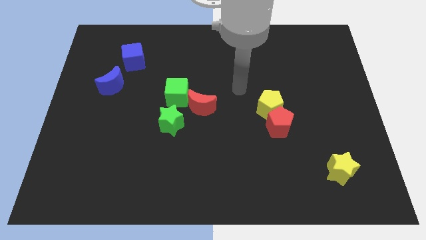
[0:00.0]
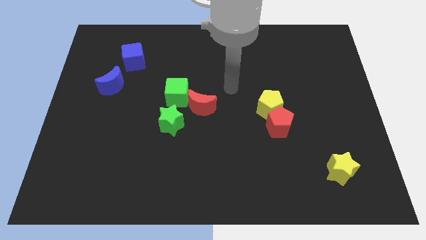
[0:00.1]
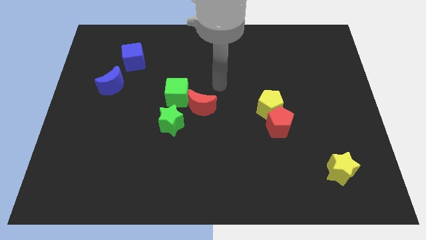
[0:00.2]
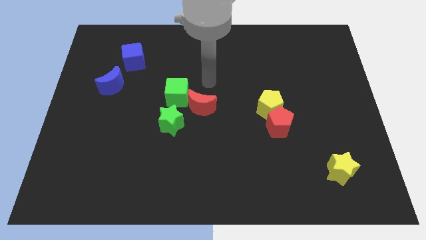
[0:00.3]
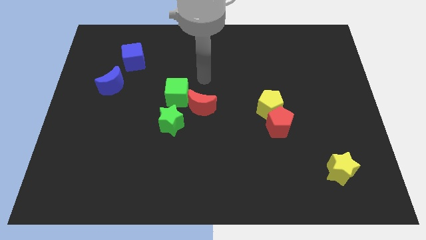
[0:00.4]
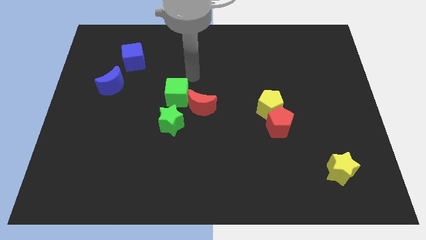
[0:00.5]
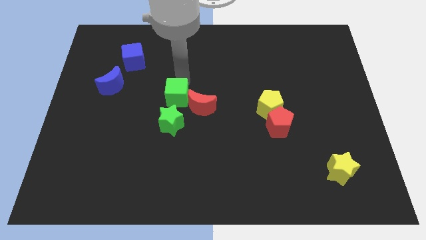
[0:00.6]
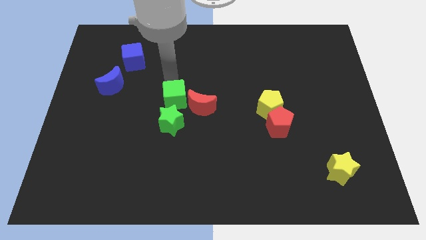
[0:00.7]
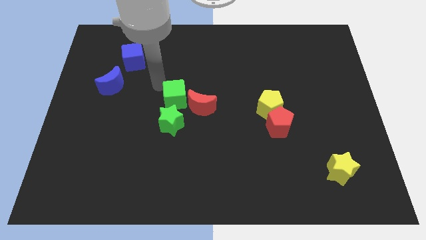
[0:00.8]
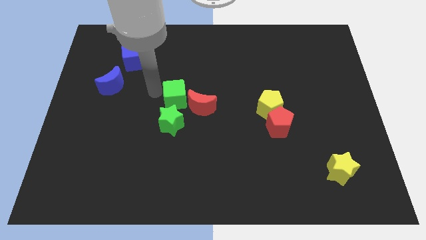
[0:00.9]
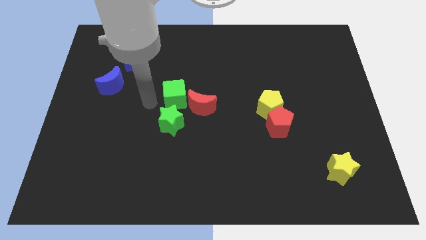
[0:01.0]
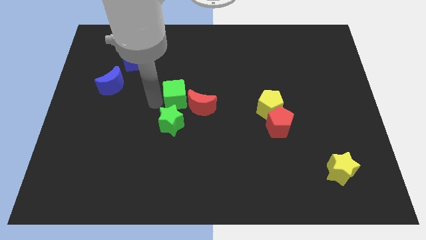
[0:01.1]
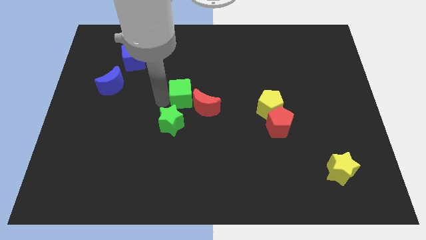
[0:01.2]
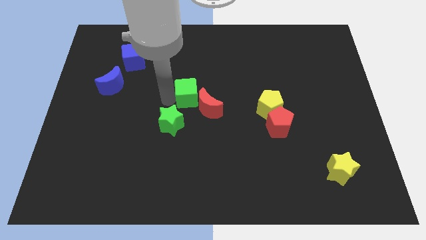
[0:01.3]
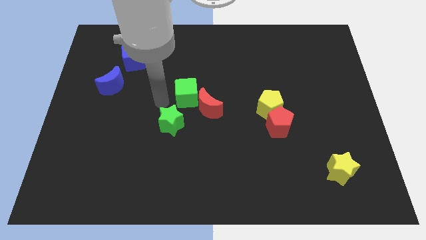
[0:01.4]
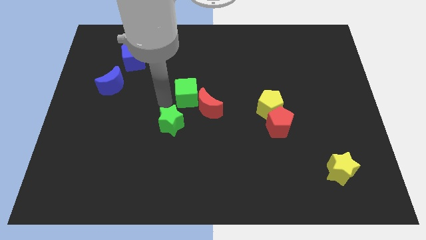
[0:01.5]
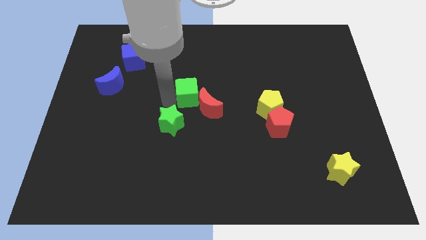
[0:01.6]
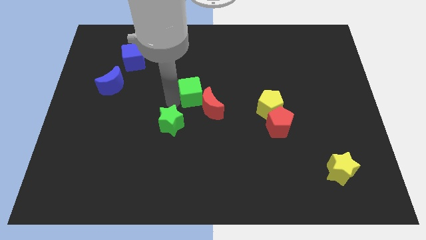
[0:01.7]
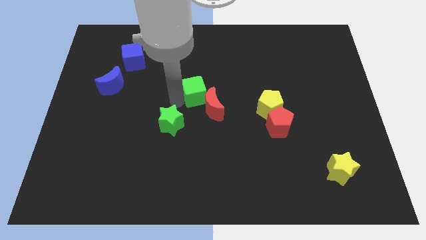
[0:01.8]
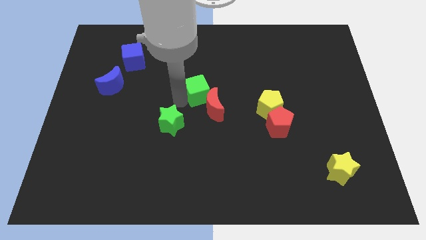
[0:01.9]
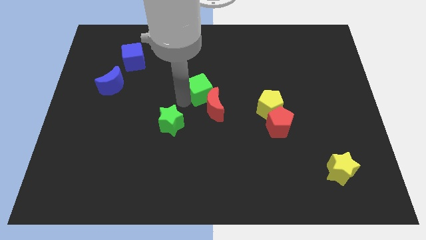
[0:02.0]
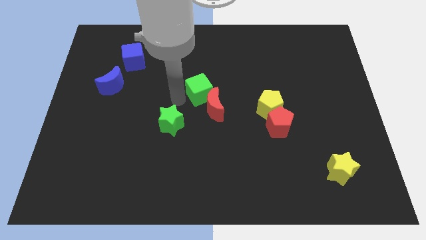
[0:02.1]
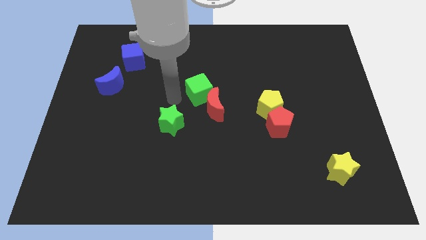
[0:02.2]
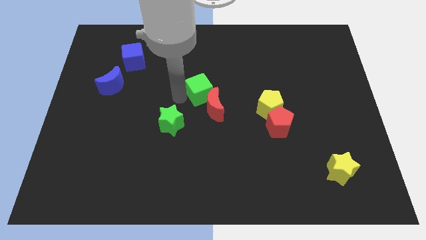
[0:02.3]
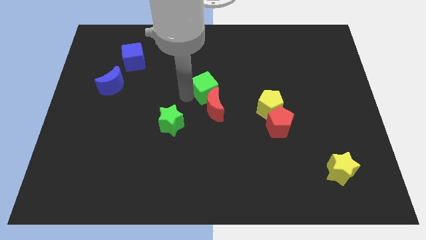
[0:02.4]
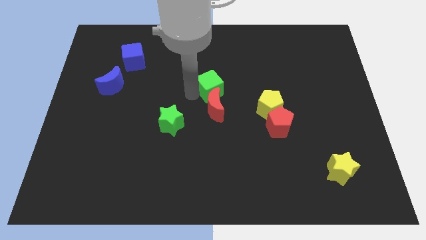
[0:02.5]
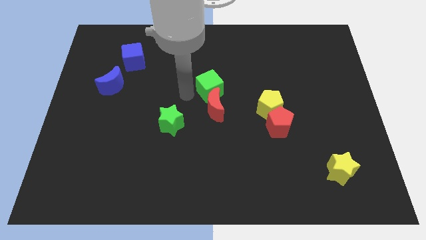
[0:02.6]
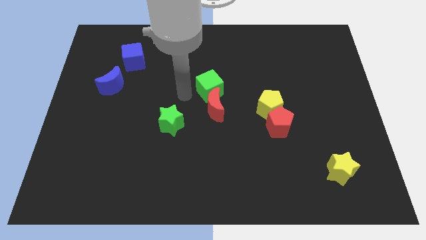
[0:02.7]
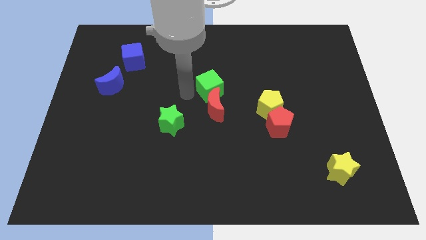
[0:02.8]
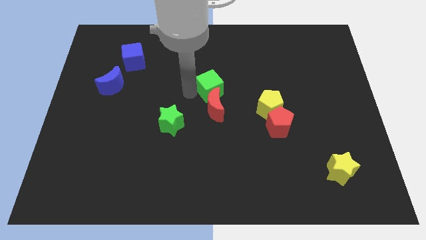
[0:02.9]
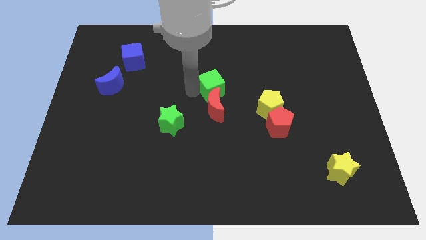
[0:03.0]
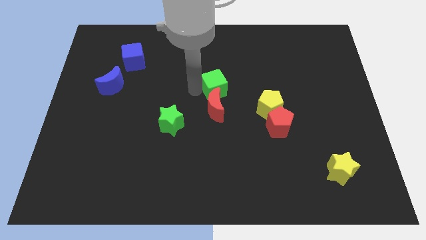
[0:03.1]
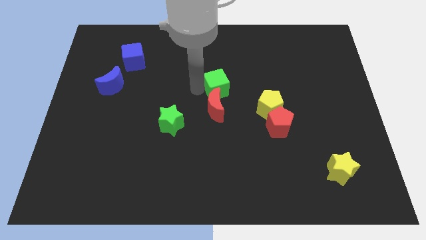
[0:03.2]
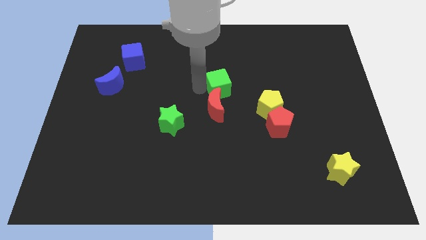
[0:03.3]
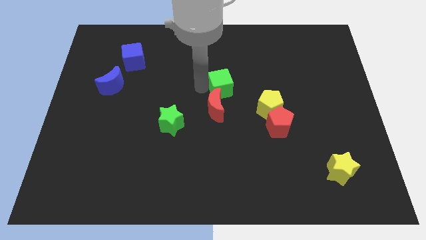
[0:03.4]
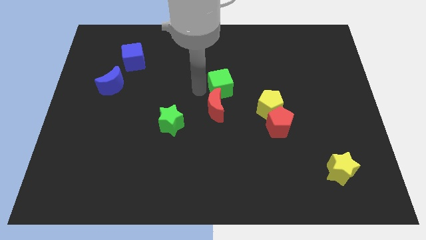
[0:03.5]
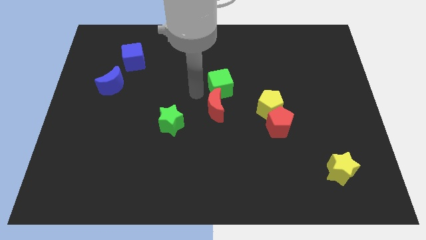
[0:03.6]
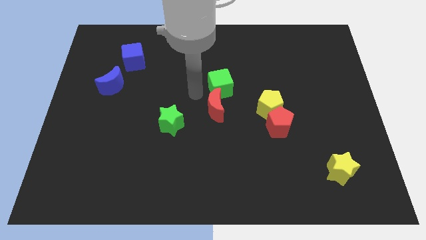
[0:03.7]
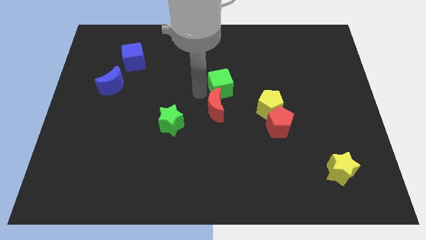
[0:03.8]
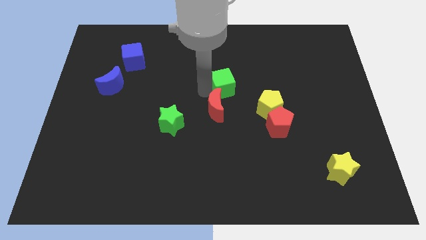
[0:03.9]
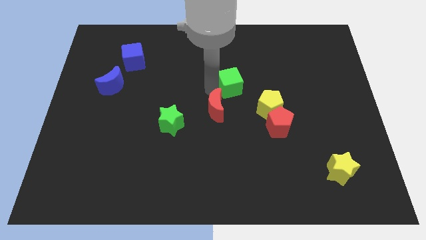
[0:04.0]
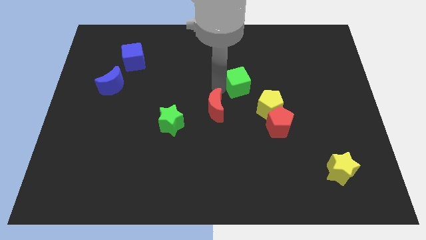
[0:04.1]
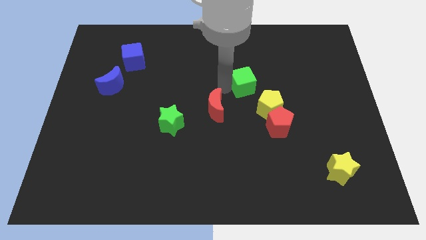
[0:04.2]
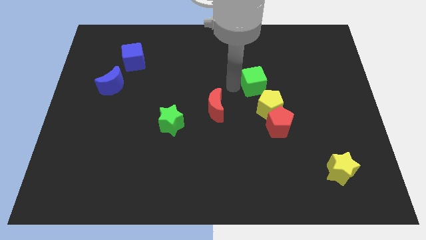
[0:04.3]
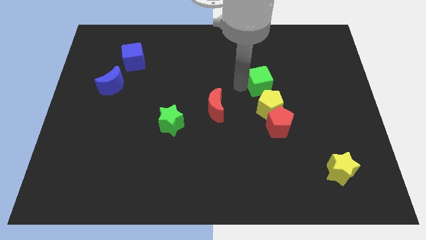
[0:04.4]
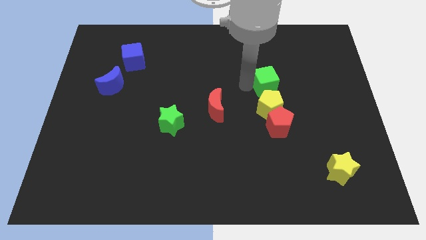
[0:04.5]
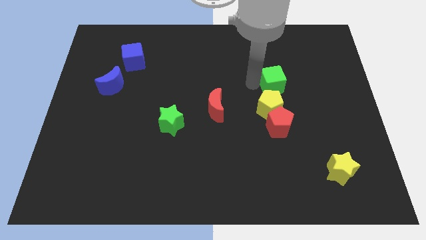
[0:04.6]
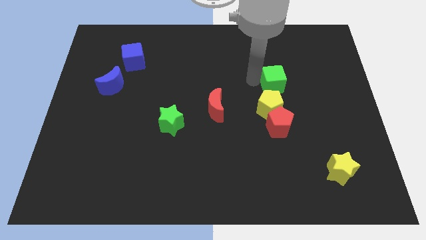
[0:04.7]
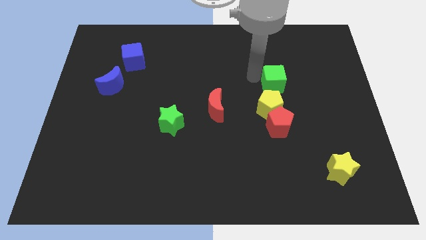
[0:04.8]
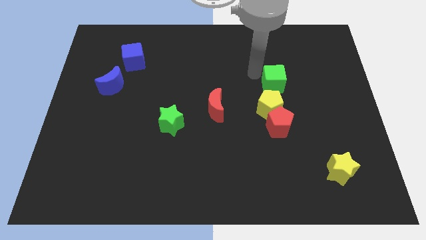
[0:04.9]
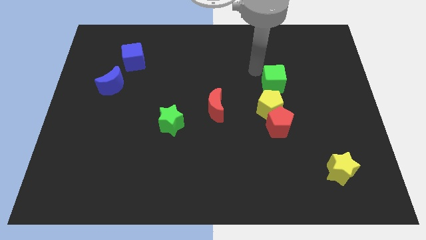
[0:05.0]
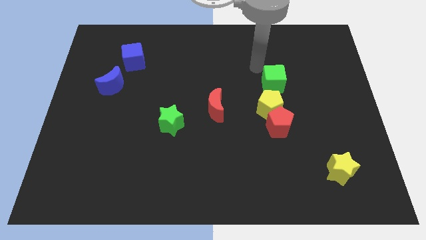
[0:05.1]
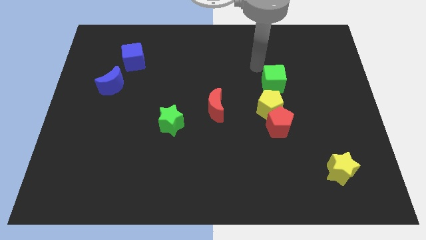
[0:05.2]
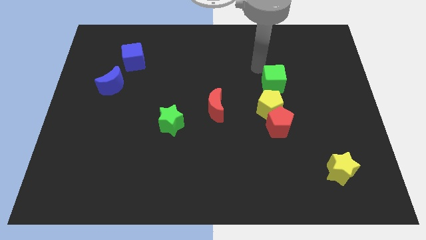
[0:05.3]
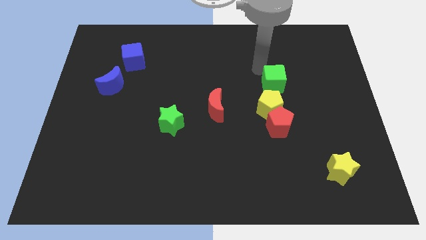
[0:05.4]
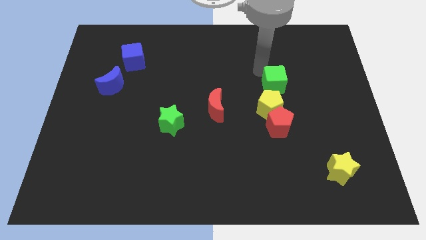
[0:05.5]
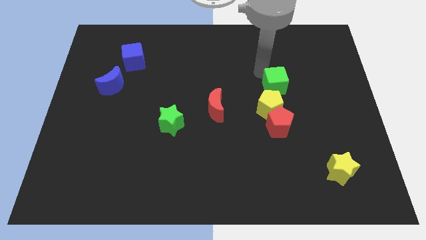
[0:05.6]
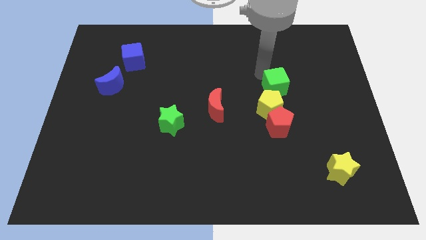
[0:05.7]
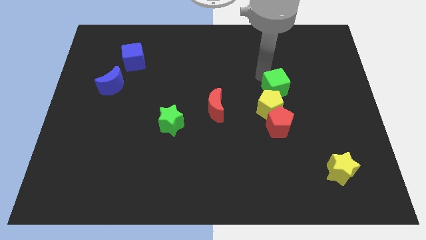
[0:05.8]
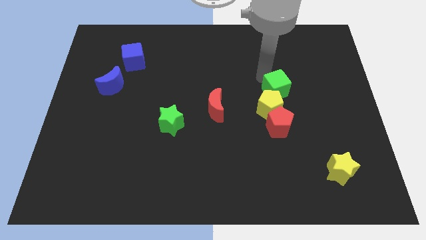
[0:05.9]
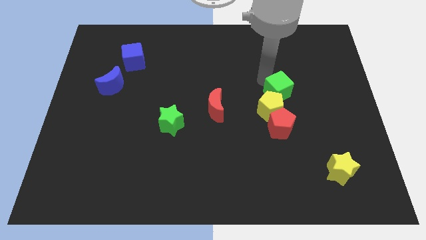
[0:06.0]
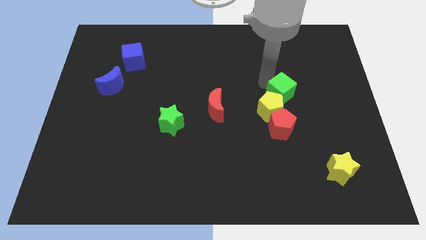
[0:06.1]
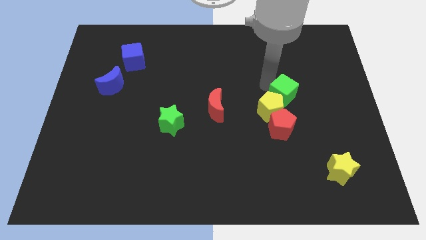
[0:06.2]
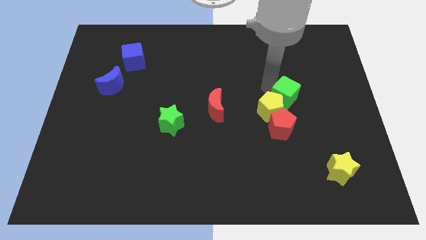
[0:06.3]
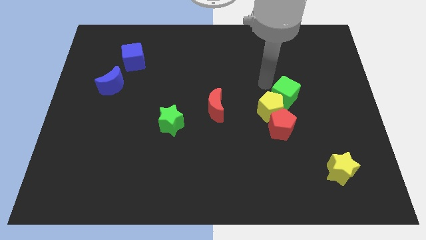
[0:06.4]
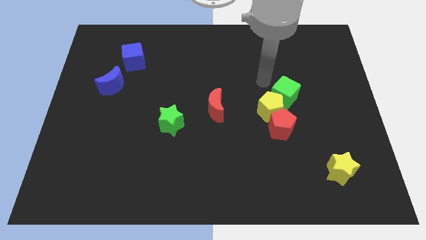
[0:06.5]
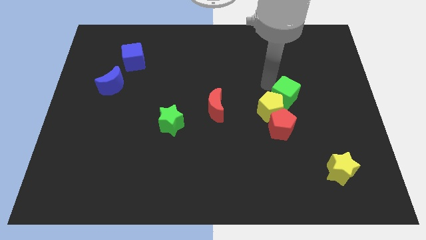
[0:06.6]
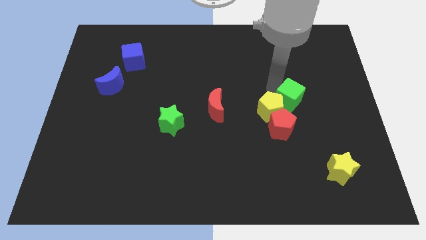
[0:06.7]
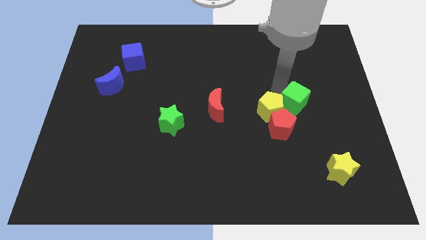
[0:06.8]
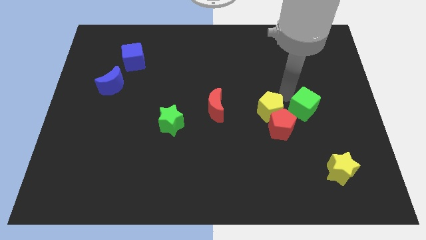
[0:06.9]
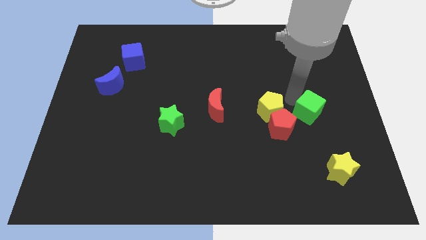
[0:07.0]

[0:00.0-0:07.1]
push the green cube to the right of the red pentagon

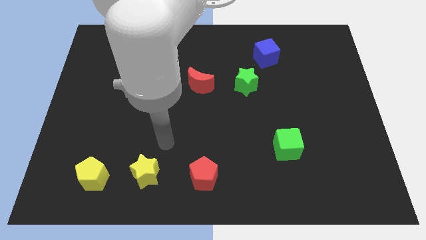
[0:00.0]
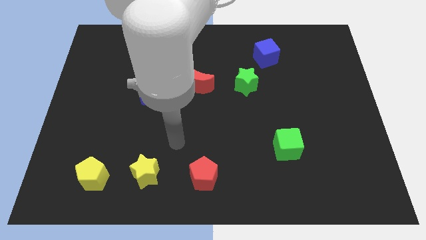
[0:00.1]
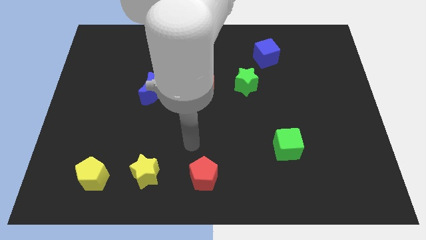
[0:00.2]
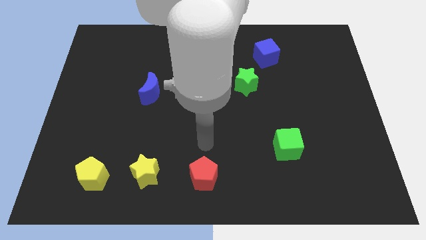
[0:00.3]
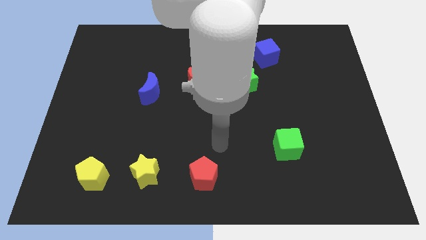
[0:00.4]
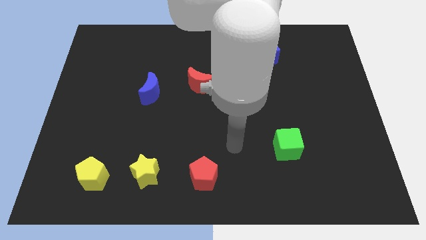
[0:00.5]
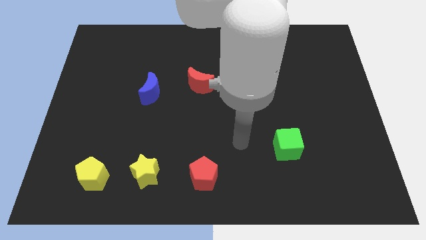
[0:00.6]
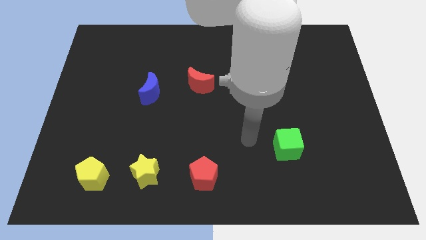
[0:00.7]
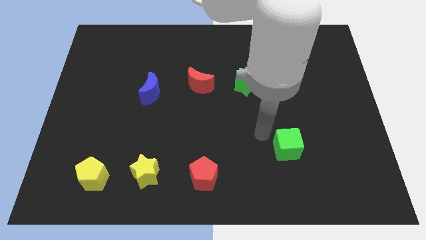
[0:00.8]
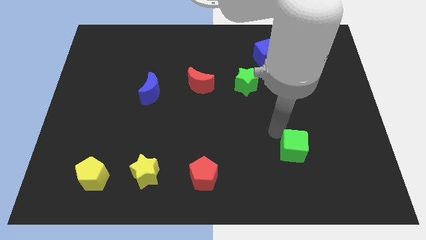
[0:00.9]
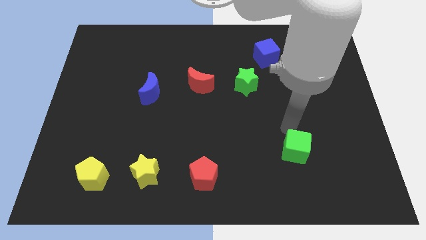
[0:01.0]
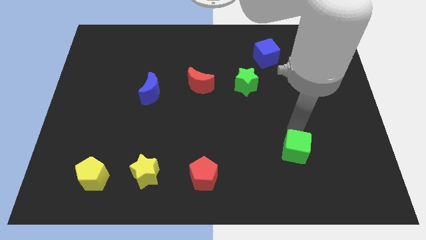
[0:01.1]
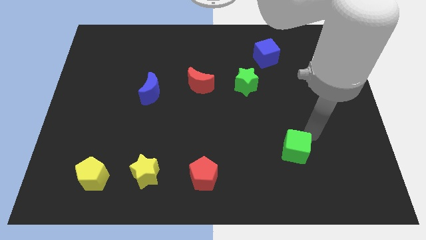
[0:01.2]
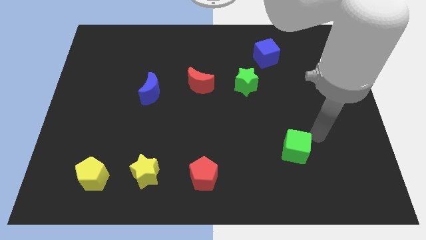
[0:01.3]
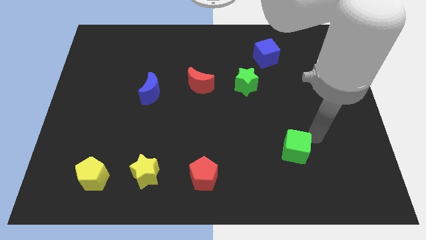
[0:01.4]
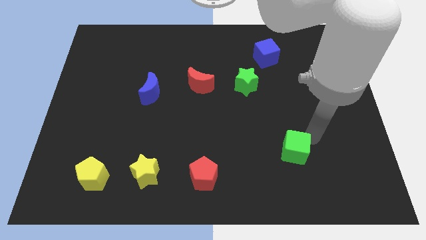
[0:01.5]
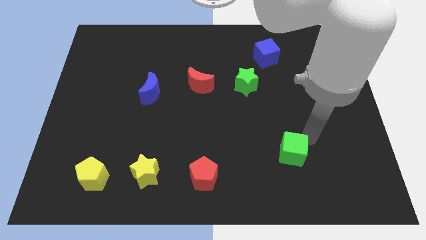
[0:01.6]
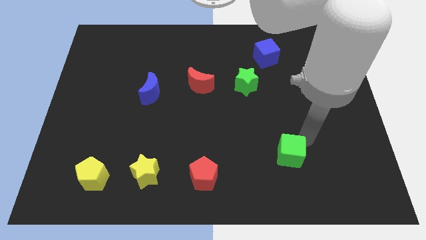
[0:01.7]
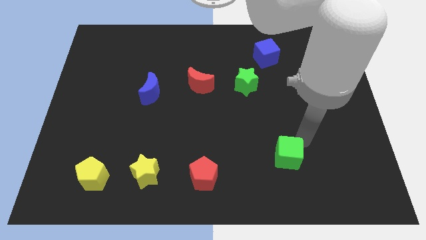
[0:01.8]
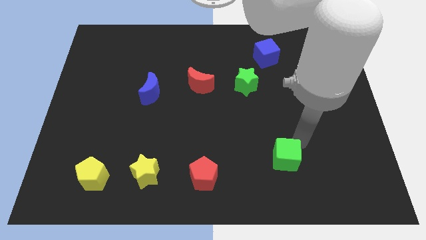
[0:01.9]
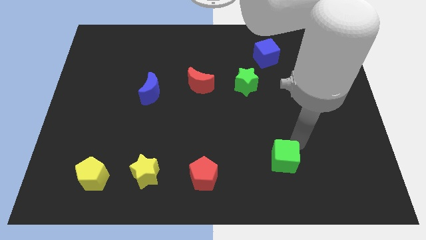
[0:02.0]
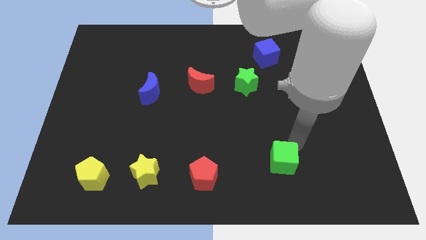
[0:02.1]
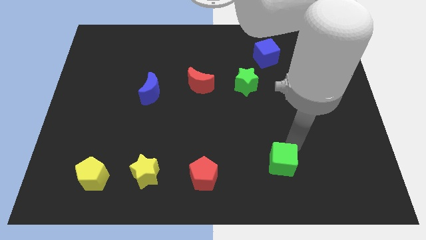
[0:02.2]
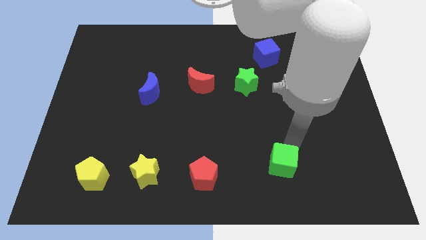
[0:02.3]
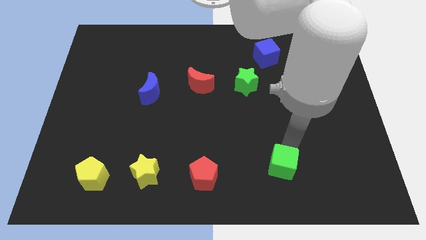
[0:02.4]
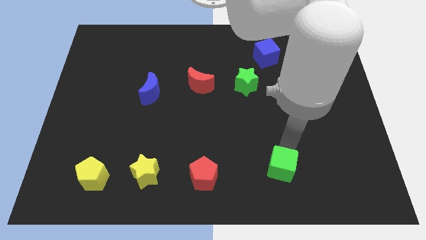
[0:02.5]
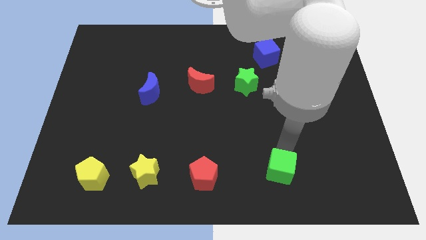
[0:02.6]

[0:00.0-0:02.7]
put the green cube to the right of the red pentagon
